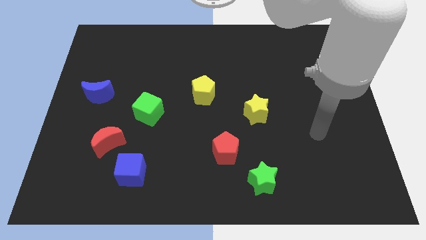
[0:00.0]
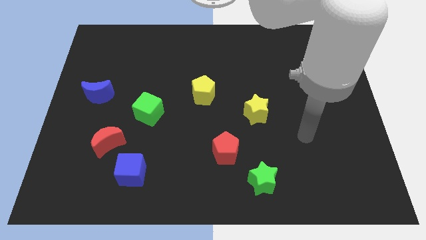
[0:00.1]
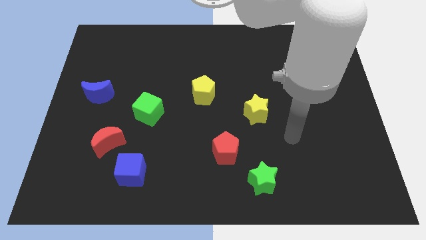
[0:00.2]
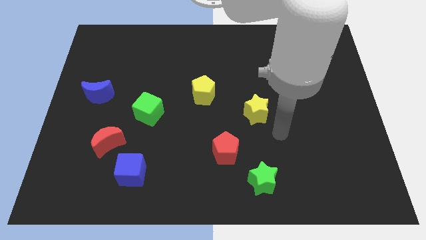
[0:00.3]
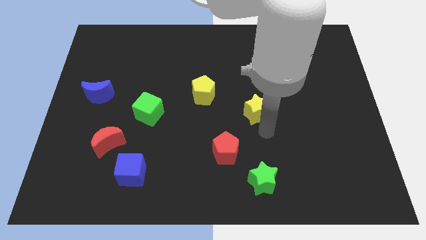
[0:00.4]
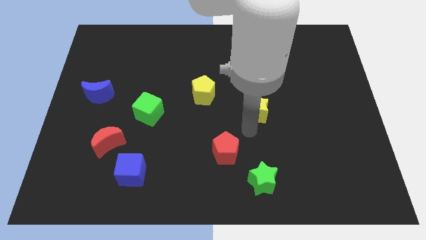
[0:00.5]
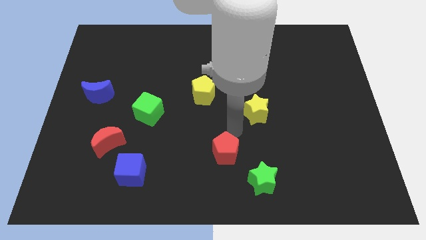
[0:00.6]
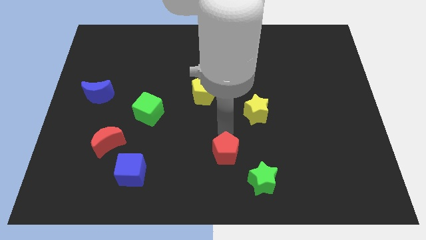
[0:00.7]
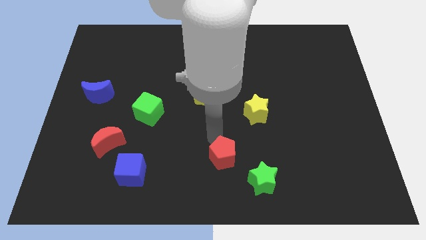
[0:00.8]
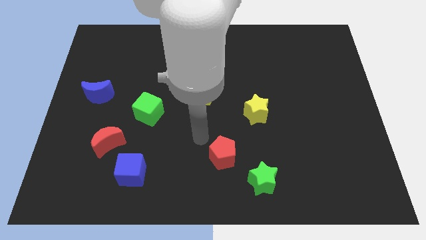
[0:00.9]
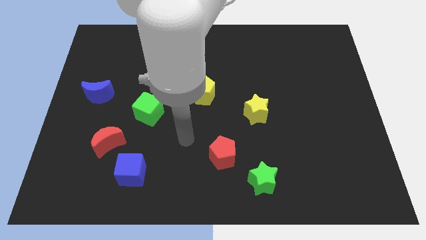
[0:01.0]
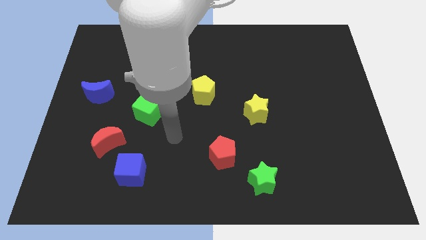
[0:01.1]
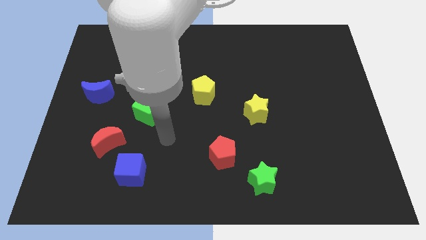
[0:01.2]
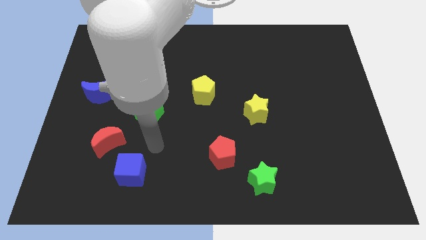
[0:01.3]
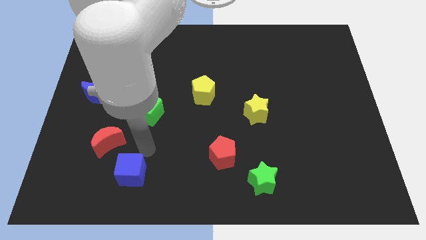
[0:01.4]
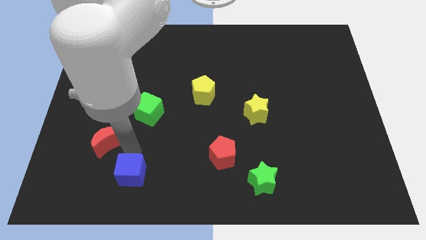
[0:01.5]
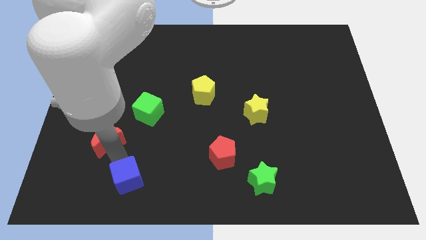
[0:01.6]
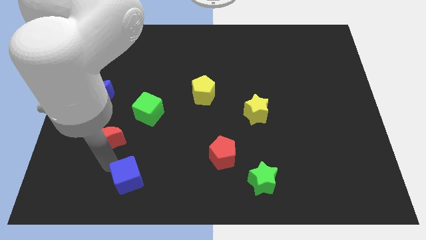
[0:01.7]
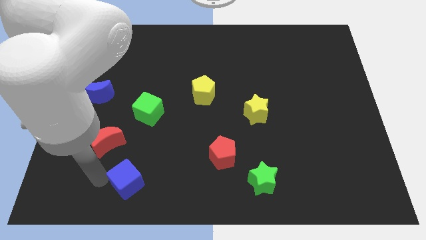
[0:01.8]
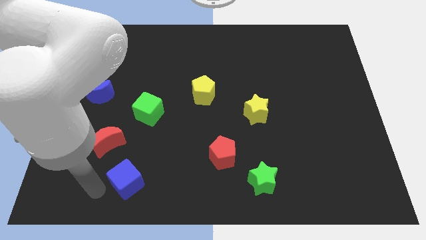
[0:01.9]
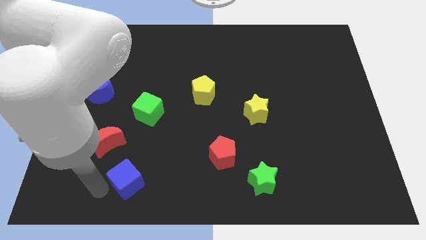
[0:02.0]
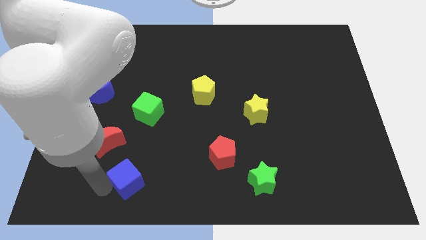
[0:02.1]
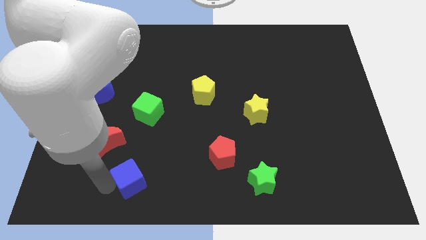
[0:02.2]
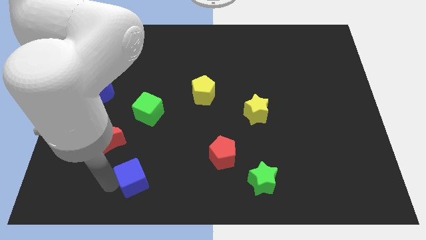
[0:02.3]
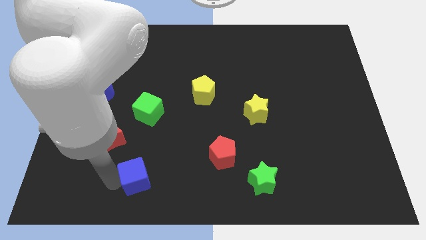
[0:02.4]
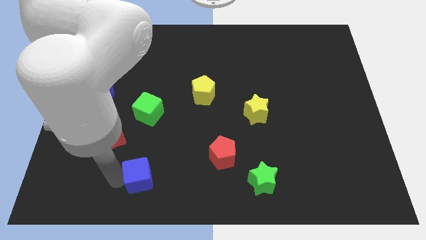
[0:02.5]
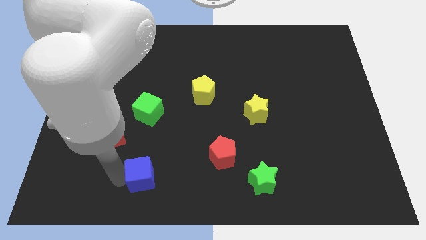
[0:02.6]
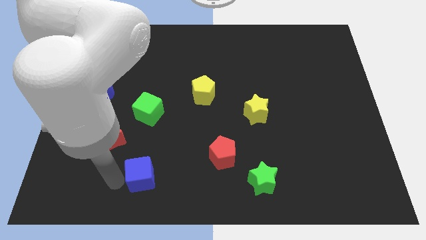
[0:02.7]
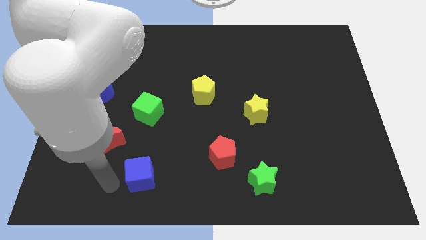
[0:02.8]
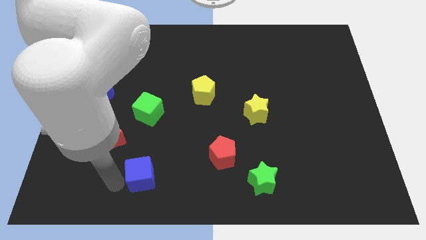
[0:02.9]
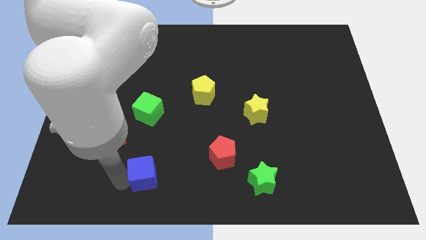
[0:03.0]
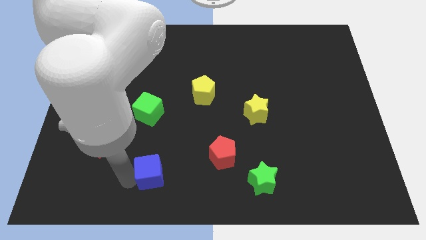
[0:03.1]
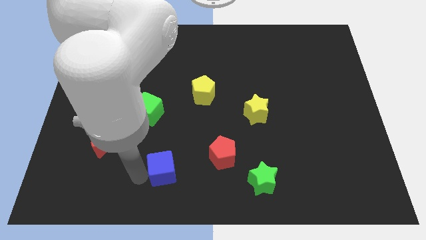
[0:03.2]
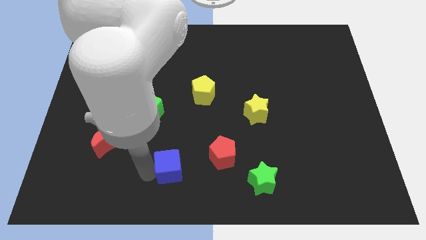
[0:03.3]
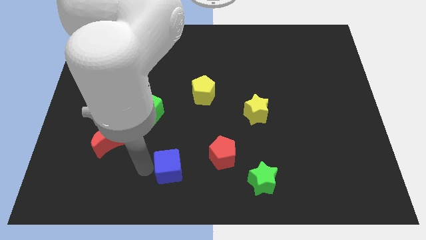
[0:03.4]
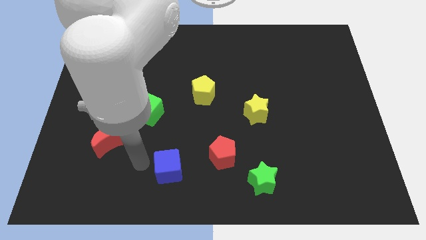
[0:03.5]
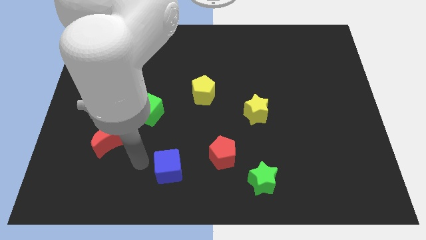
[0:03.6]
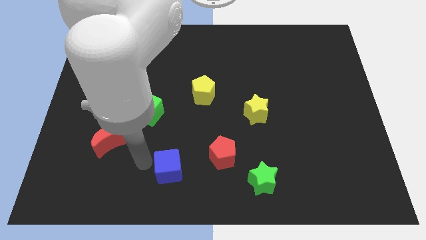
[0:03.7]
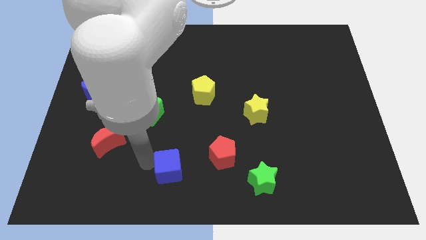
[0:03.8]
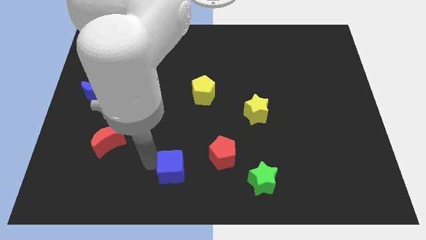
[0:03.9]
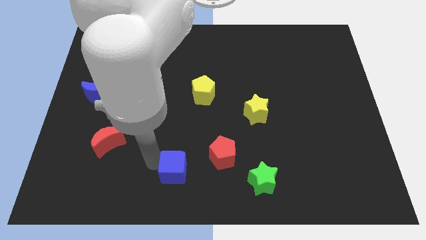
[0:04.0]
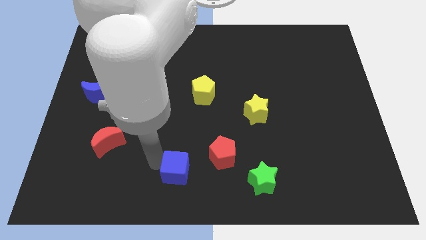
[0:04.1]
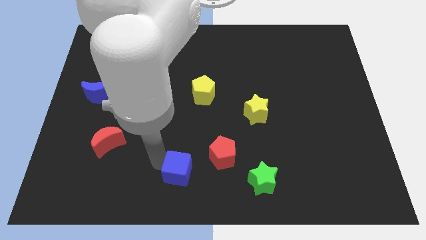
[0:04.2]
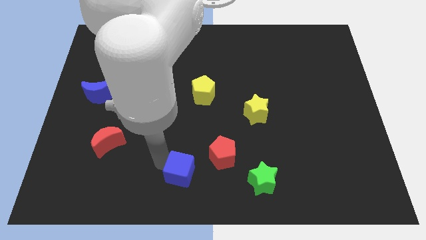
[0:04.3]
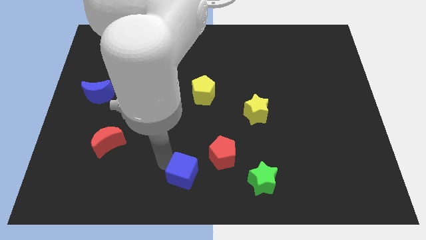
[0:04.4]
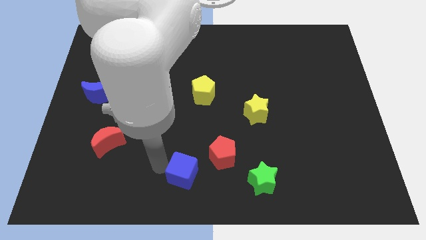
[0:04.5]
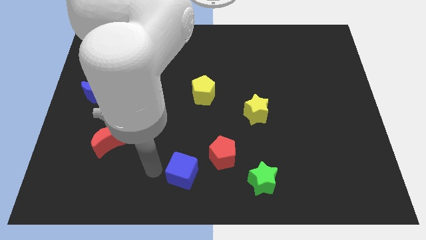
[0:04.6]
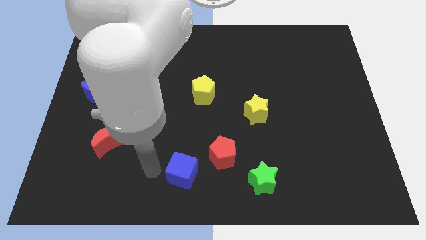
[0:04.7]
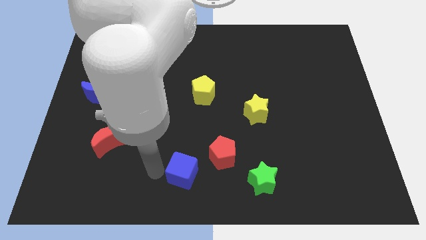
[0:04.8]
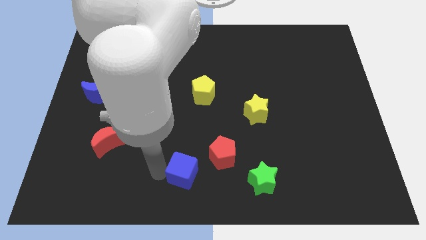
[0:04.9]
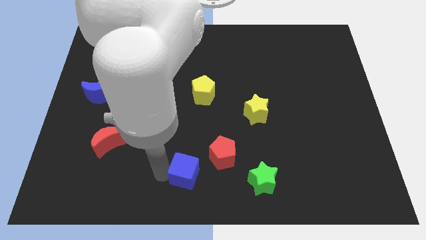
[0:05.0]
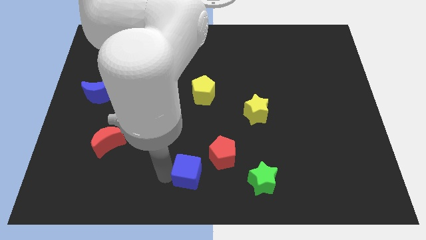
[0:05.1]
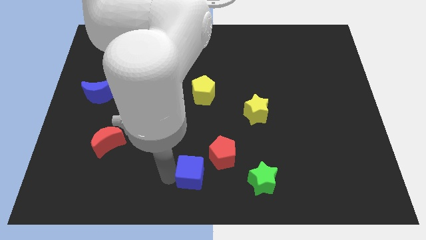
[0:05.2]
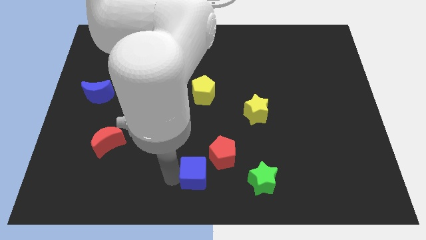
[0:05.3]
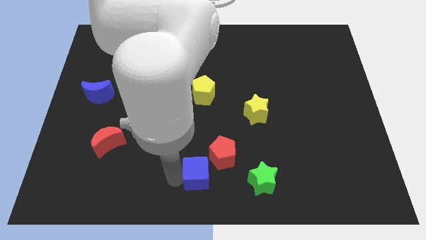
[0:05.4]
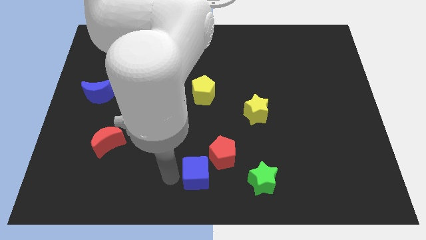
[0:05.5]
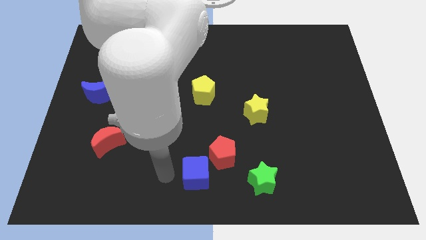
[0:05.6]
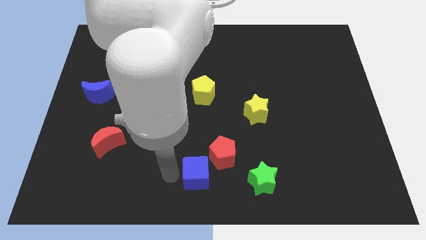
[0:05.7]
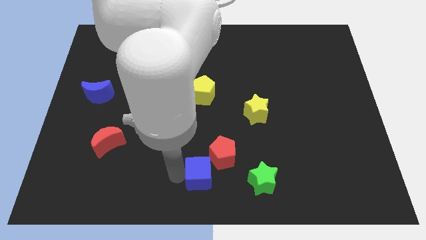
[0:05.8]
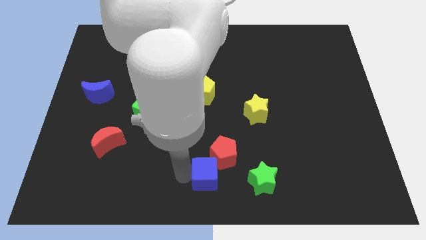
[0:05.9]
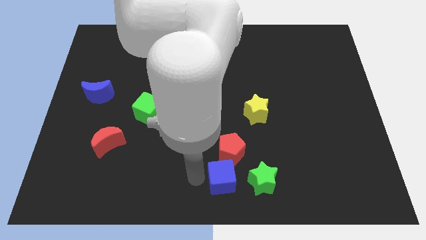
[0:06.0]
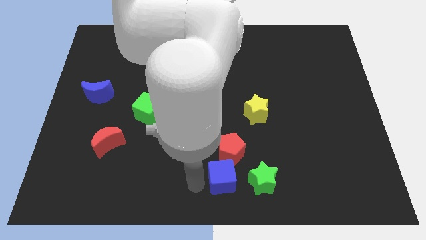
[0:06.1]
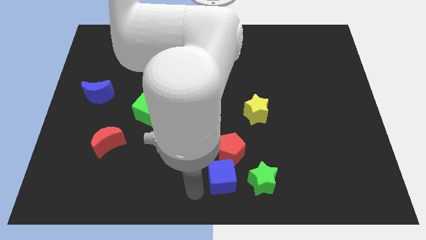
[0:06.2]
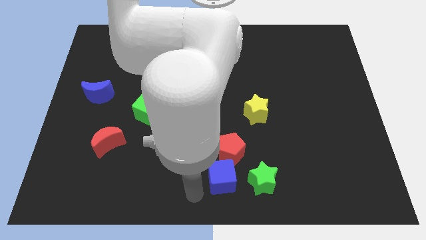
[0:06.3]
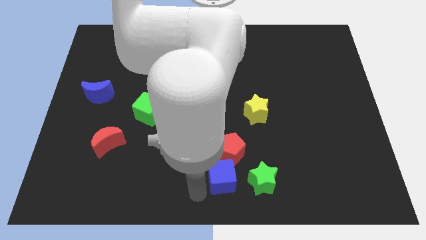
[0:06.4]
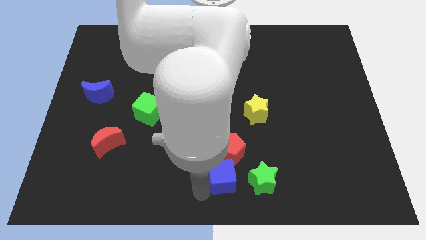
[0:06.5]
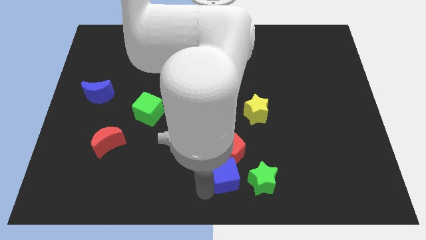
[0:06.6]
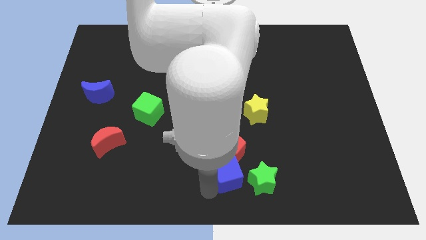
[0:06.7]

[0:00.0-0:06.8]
push the blue cube to the right

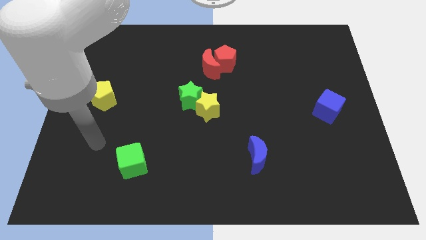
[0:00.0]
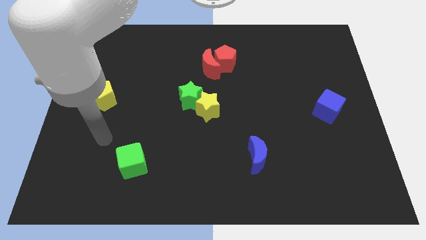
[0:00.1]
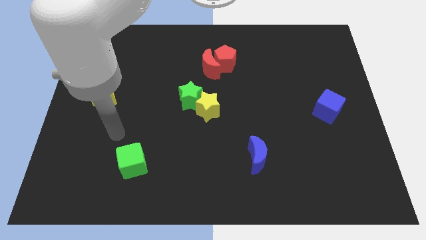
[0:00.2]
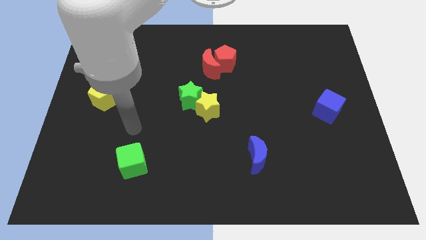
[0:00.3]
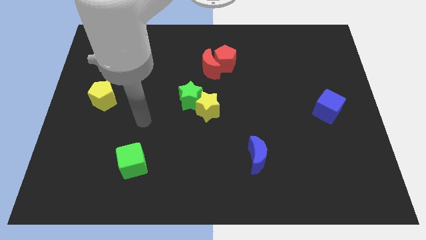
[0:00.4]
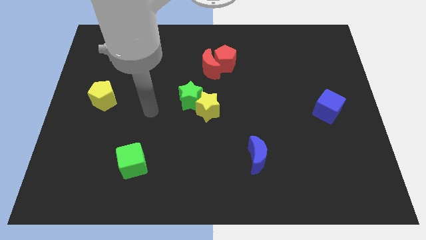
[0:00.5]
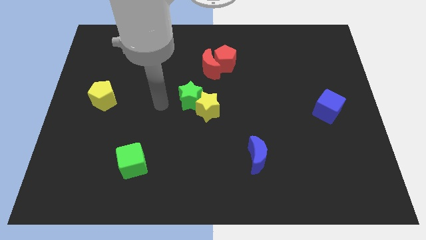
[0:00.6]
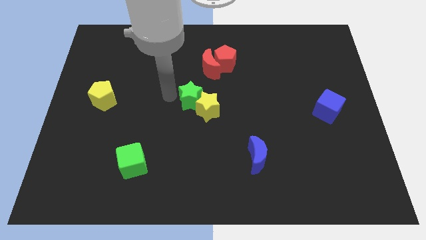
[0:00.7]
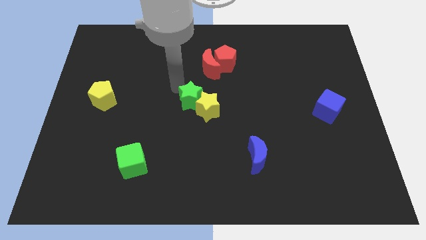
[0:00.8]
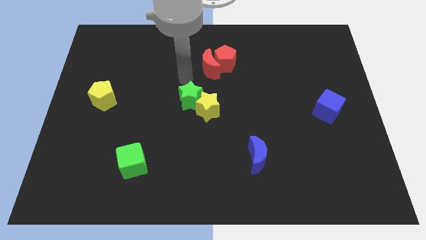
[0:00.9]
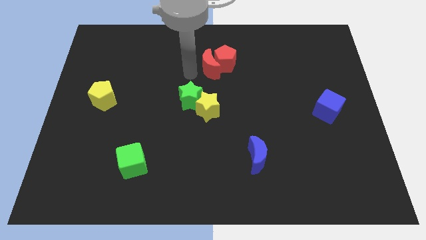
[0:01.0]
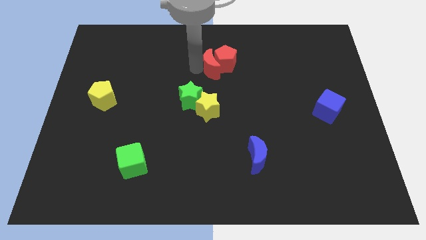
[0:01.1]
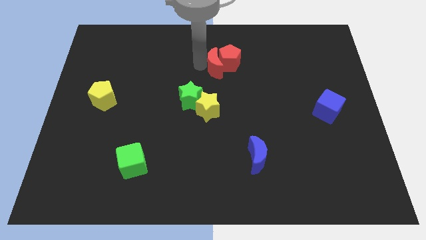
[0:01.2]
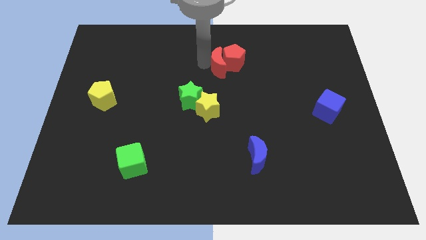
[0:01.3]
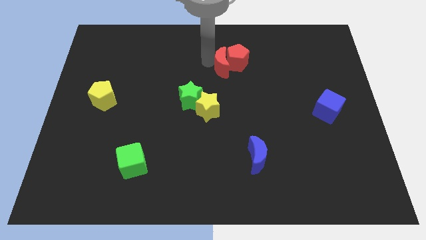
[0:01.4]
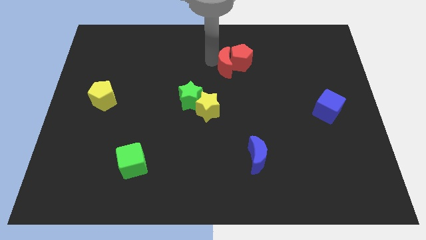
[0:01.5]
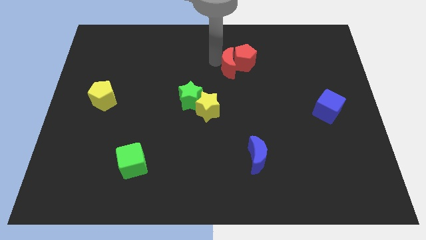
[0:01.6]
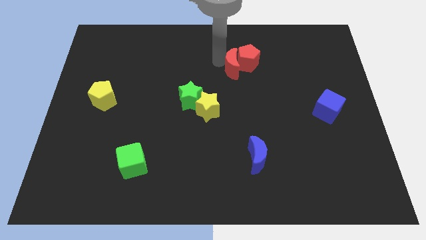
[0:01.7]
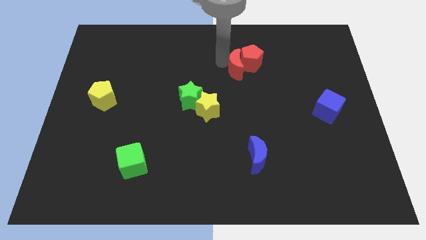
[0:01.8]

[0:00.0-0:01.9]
move the red pentagon somewhat to the right
